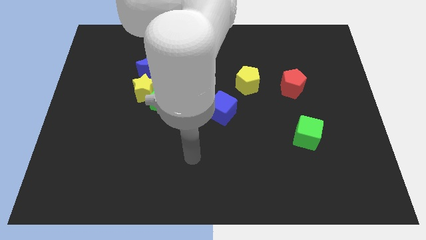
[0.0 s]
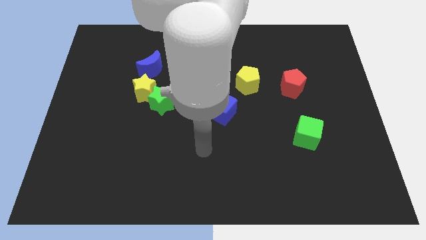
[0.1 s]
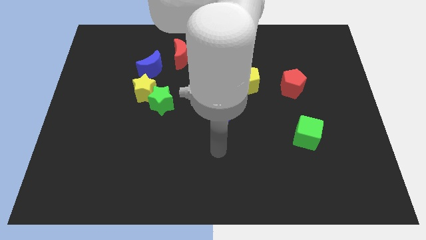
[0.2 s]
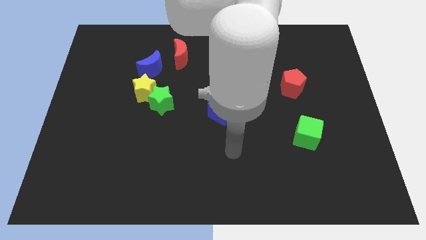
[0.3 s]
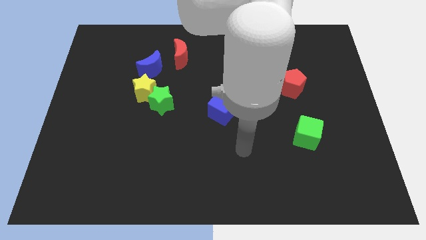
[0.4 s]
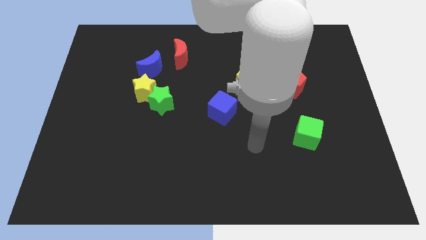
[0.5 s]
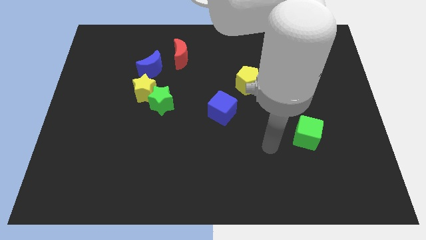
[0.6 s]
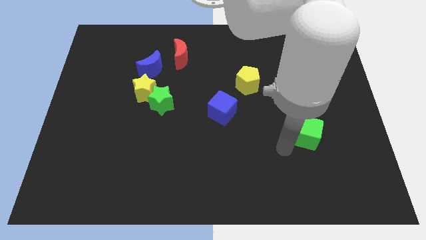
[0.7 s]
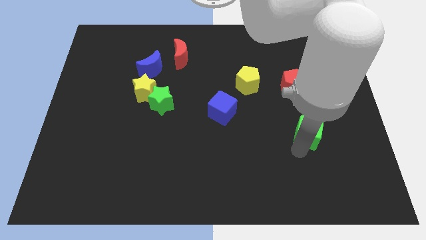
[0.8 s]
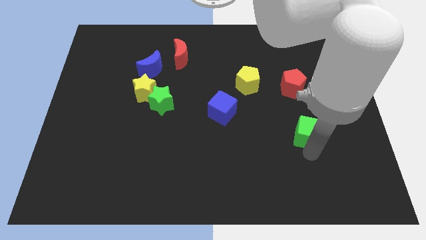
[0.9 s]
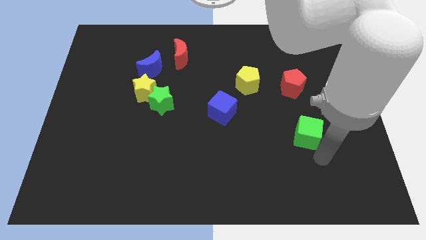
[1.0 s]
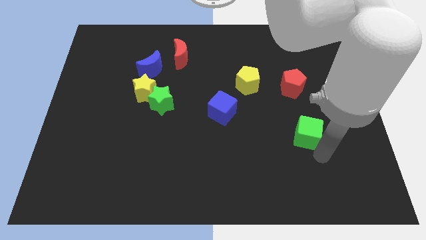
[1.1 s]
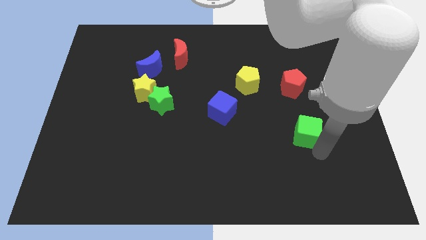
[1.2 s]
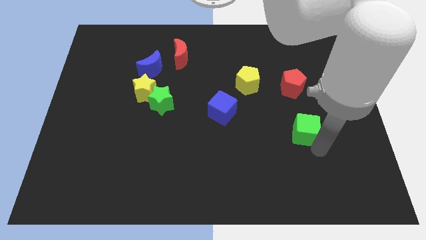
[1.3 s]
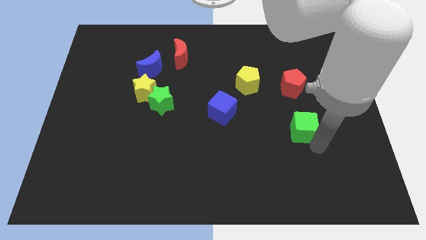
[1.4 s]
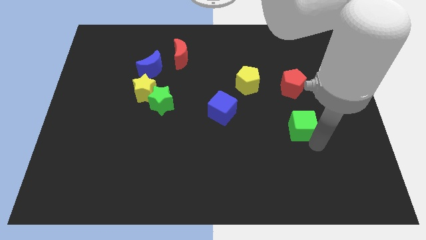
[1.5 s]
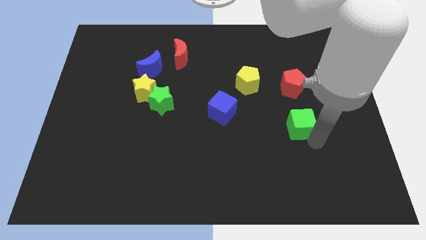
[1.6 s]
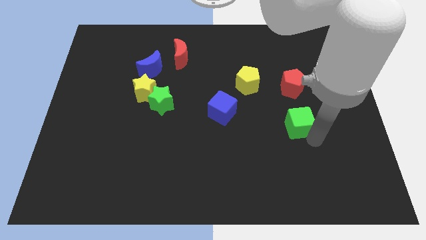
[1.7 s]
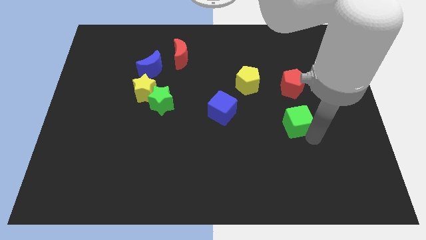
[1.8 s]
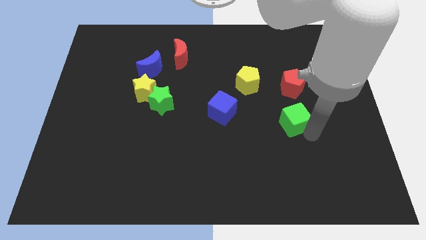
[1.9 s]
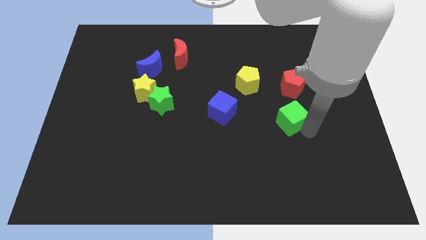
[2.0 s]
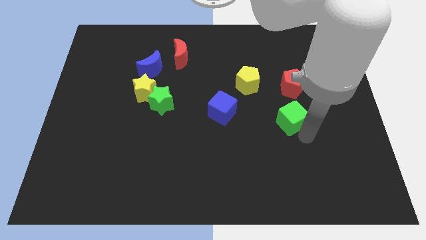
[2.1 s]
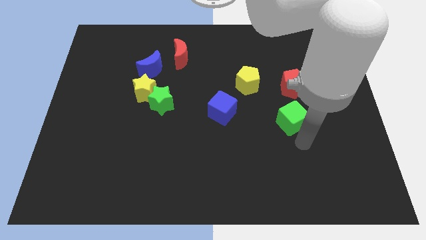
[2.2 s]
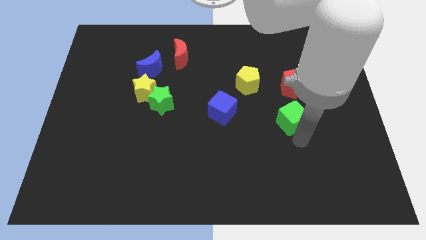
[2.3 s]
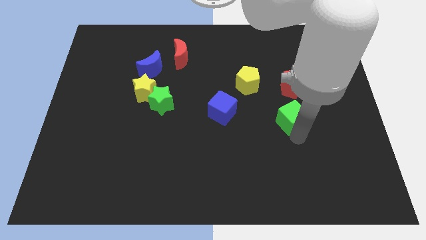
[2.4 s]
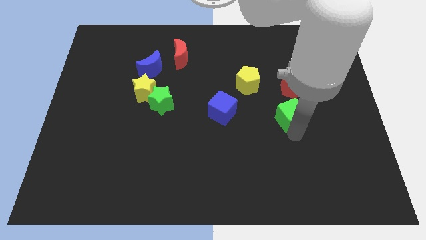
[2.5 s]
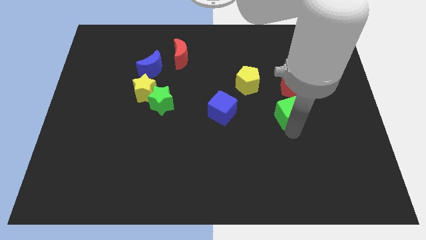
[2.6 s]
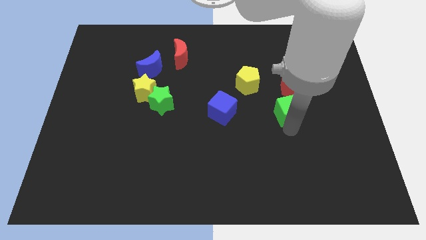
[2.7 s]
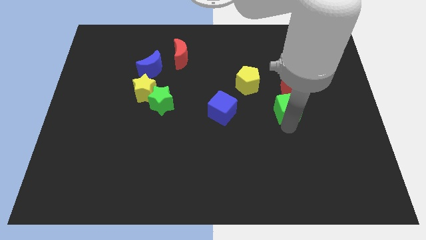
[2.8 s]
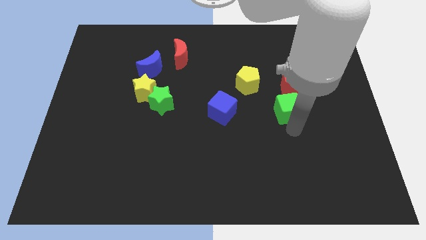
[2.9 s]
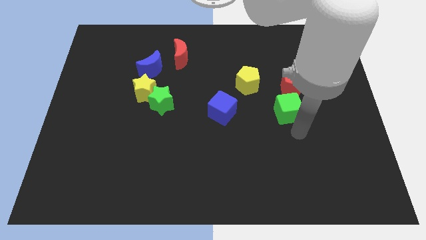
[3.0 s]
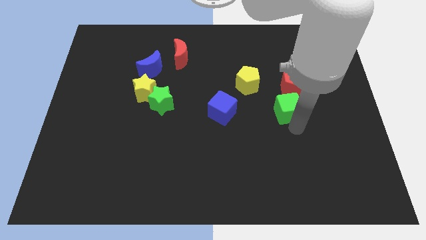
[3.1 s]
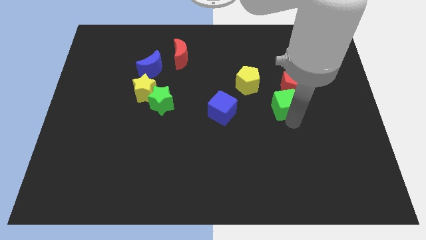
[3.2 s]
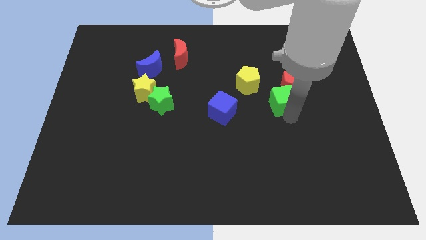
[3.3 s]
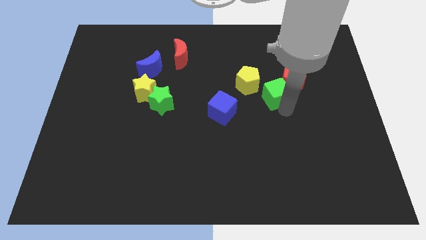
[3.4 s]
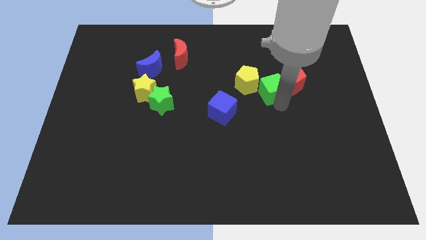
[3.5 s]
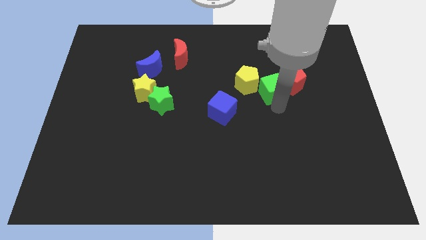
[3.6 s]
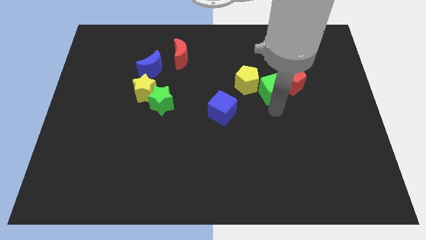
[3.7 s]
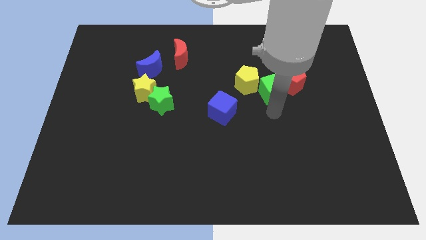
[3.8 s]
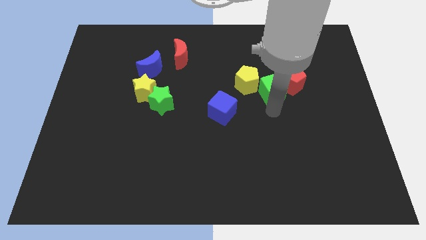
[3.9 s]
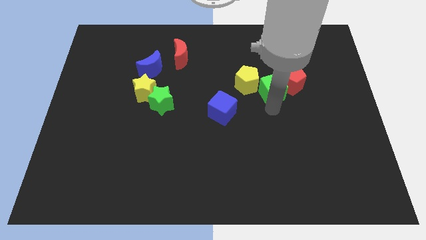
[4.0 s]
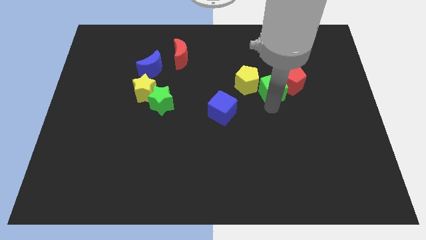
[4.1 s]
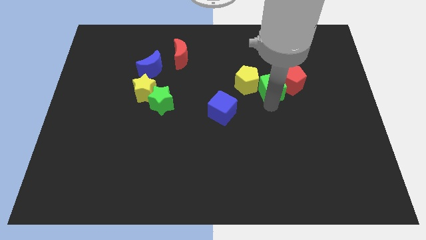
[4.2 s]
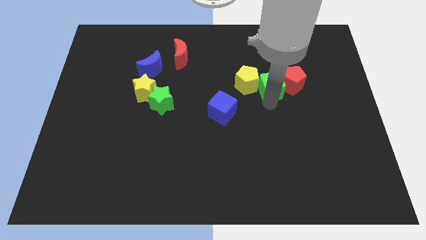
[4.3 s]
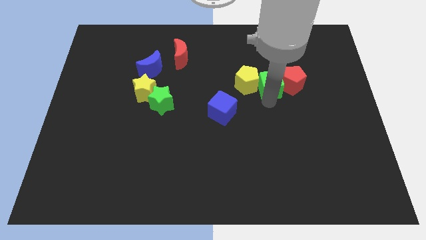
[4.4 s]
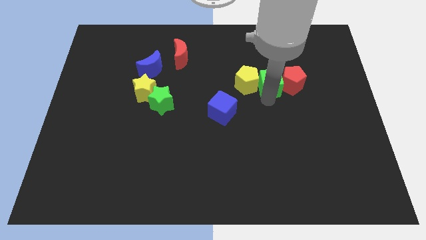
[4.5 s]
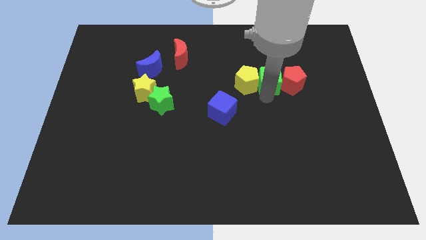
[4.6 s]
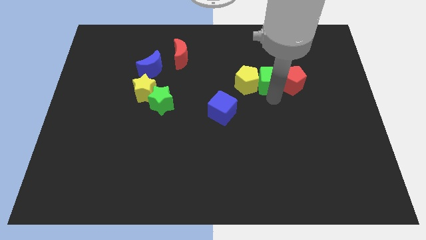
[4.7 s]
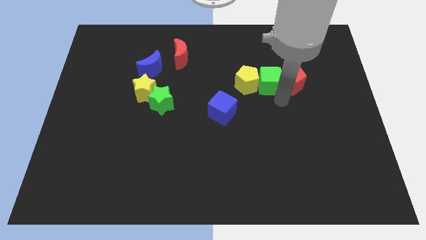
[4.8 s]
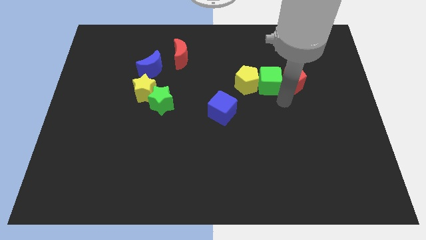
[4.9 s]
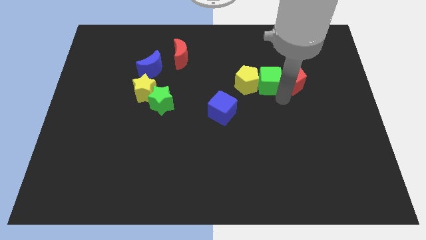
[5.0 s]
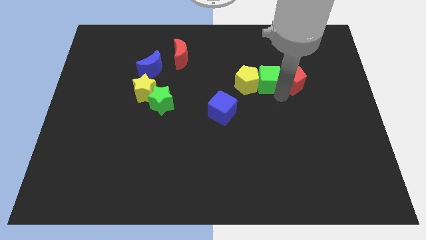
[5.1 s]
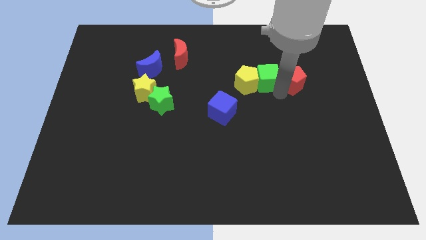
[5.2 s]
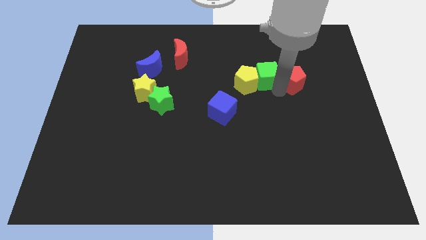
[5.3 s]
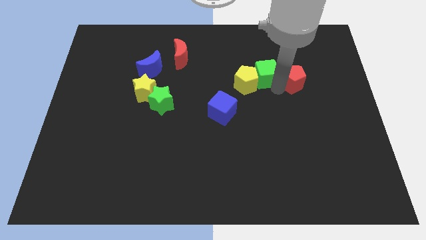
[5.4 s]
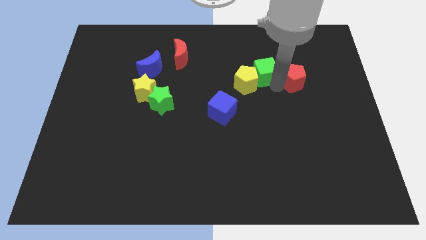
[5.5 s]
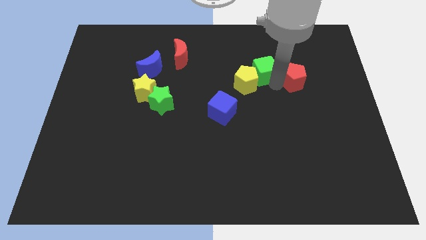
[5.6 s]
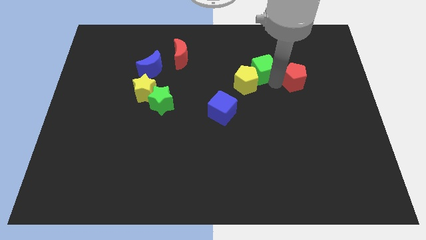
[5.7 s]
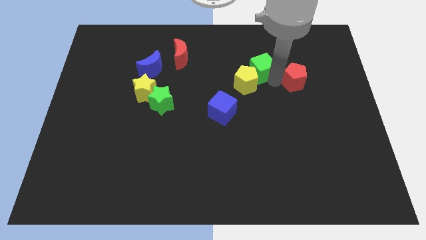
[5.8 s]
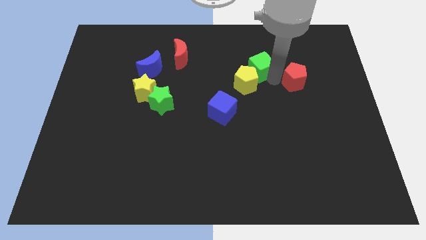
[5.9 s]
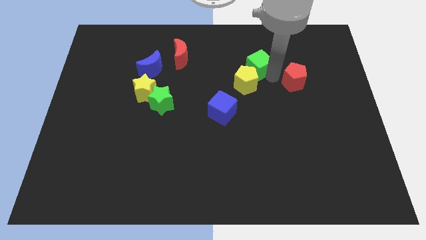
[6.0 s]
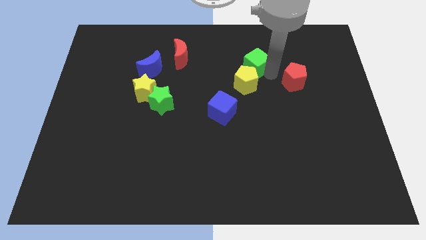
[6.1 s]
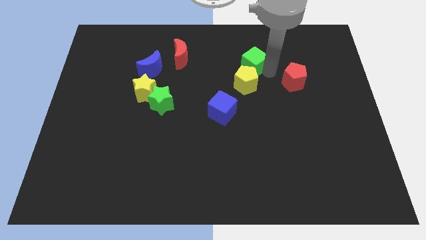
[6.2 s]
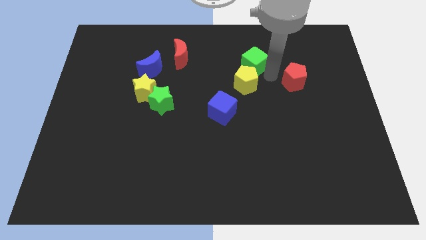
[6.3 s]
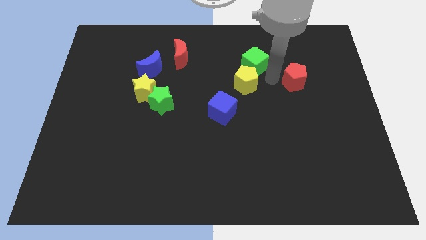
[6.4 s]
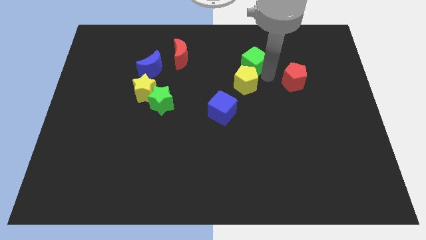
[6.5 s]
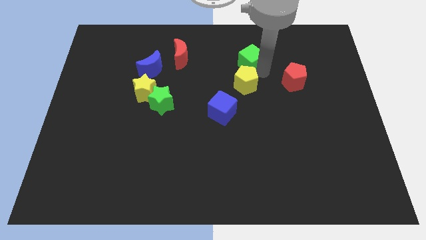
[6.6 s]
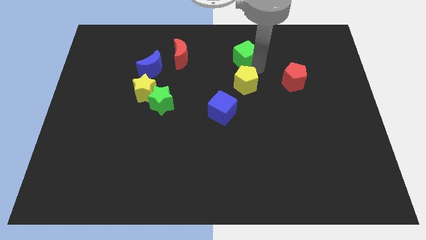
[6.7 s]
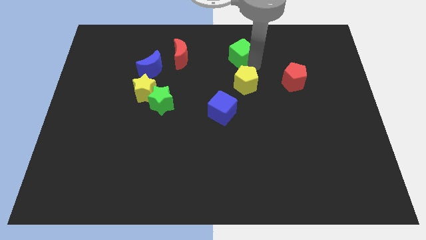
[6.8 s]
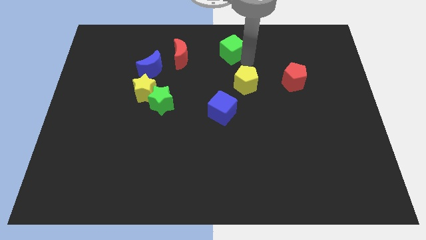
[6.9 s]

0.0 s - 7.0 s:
slide the green cube to the top

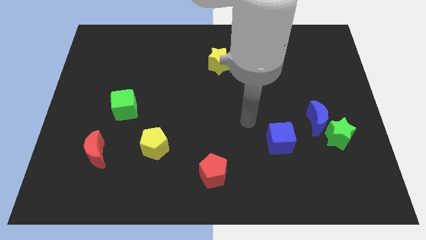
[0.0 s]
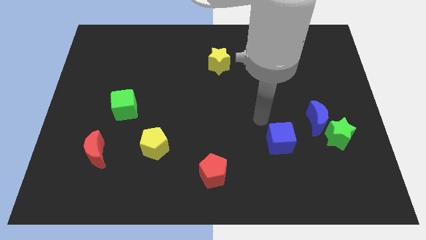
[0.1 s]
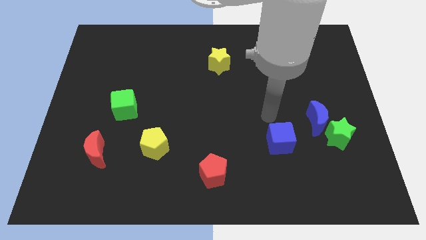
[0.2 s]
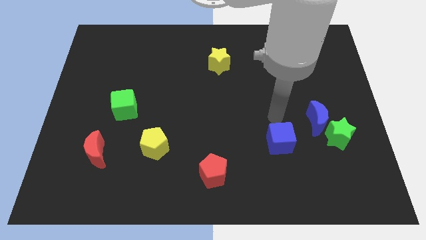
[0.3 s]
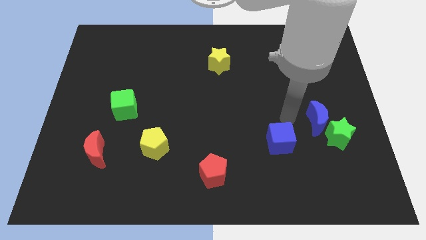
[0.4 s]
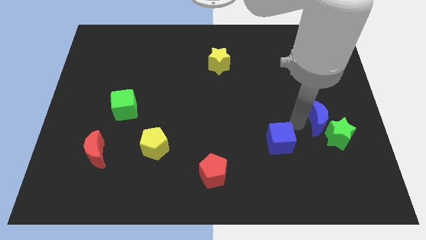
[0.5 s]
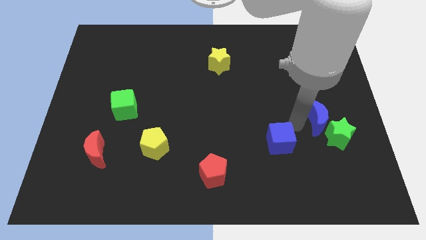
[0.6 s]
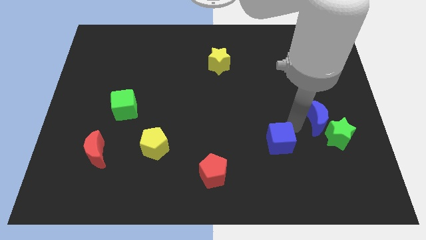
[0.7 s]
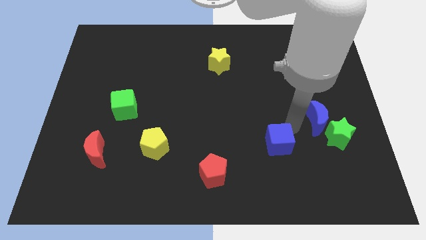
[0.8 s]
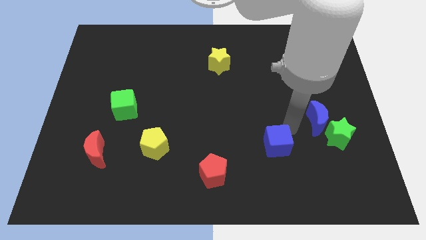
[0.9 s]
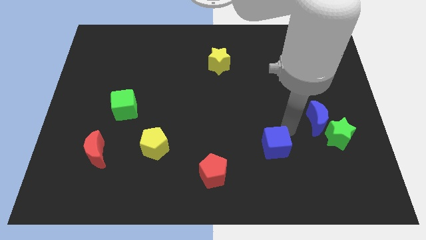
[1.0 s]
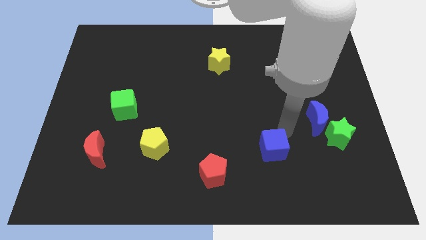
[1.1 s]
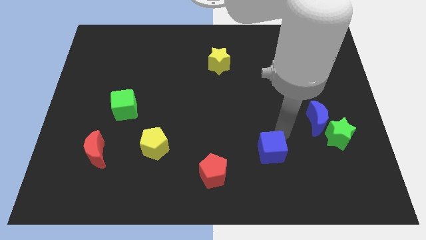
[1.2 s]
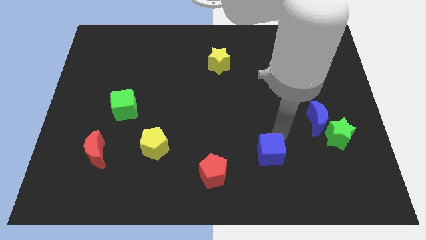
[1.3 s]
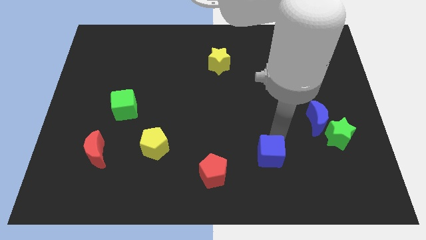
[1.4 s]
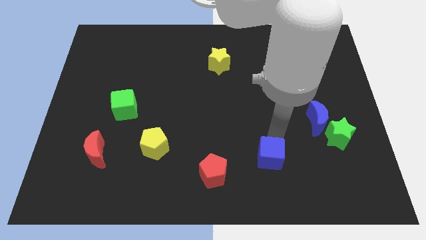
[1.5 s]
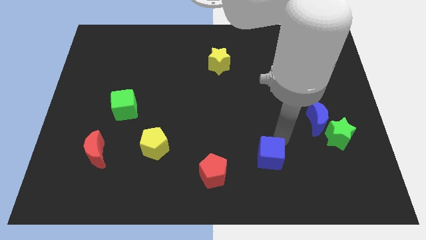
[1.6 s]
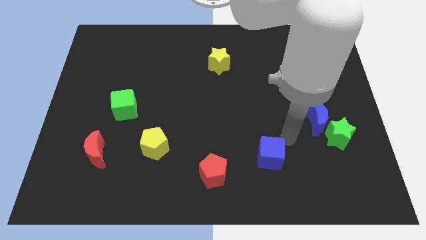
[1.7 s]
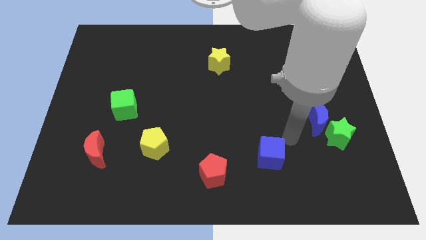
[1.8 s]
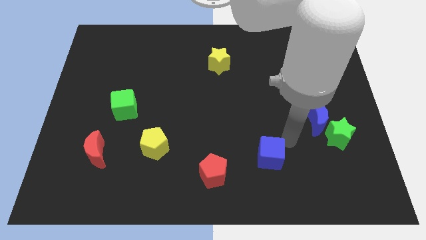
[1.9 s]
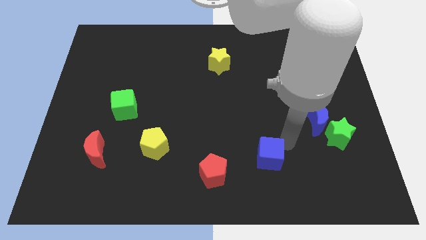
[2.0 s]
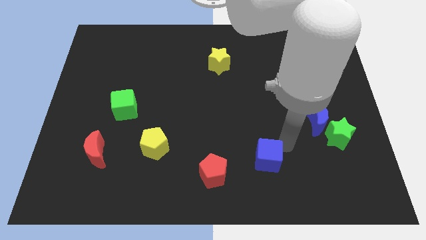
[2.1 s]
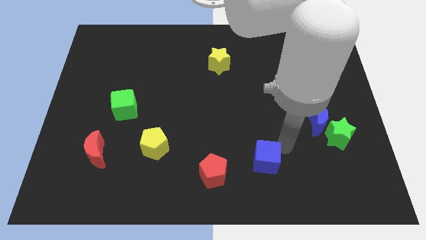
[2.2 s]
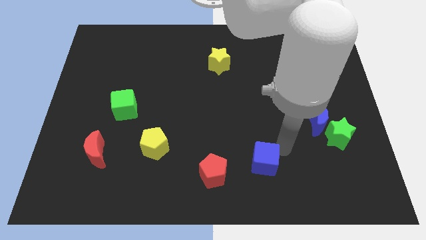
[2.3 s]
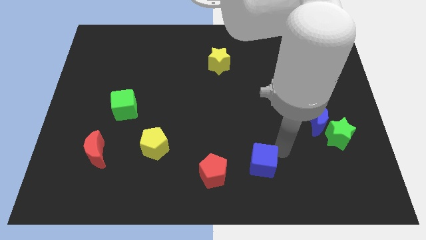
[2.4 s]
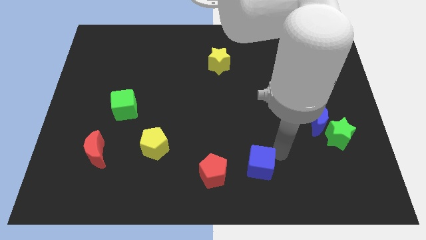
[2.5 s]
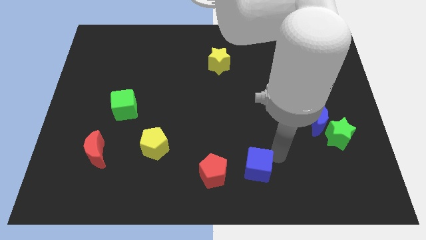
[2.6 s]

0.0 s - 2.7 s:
slide the blue cube to the bottom side
